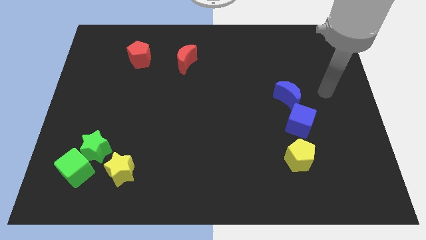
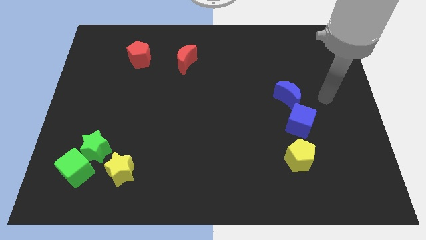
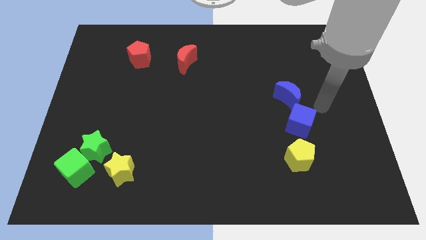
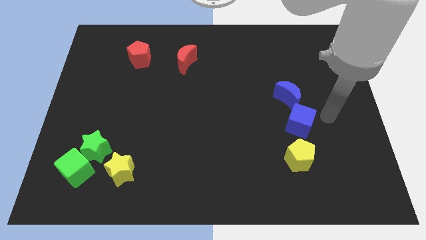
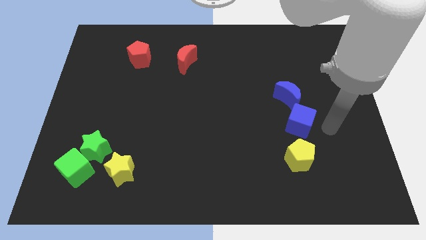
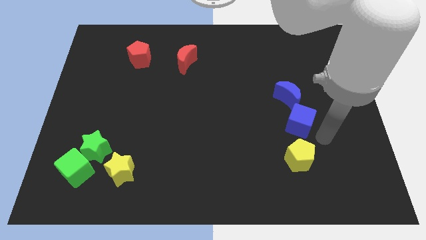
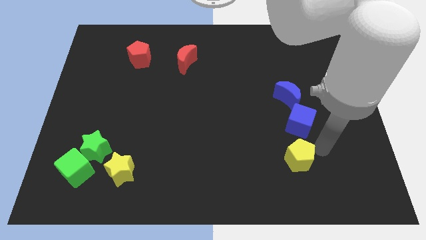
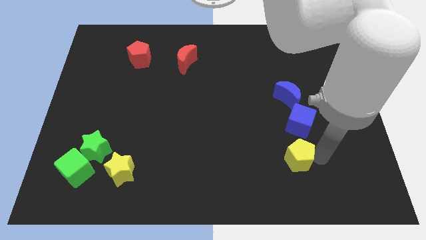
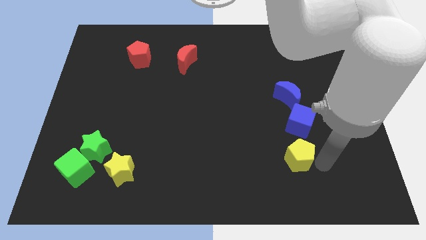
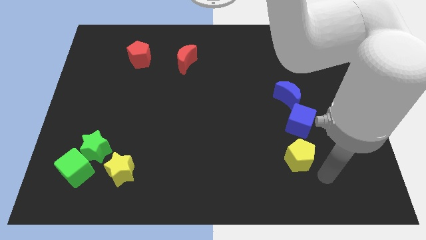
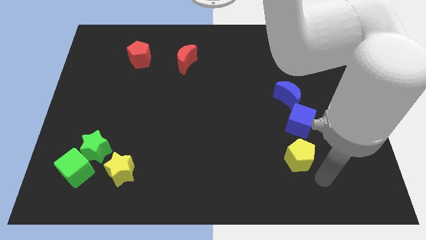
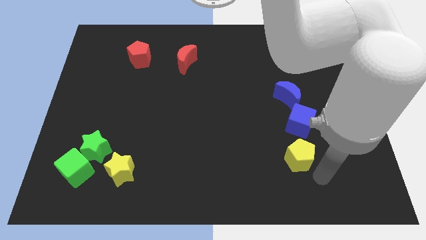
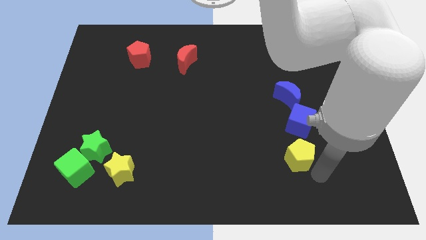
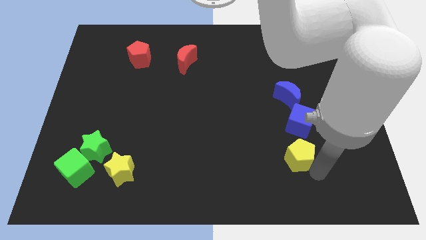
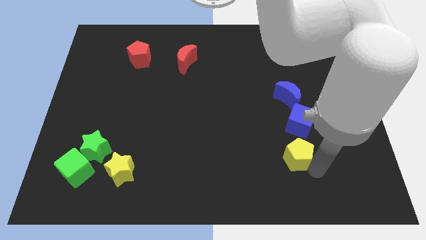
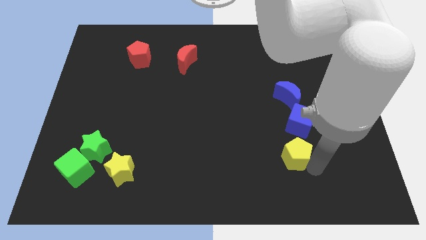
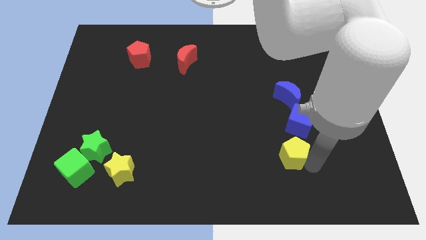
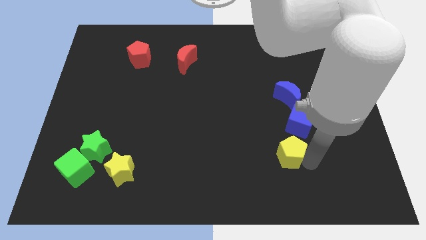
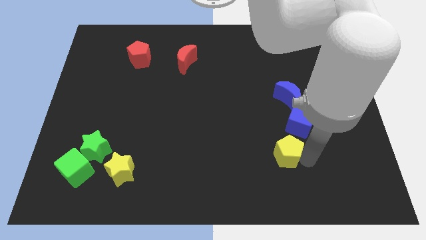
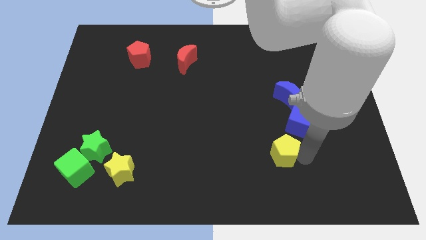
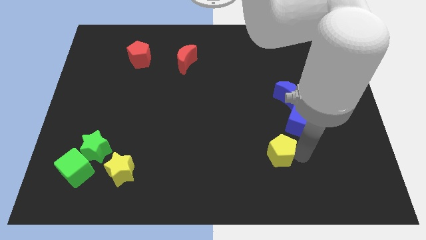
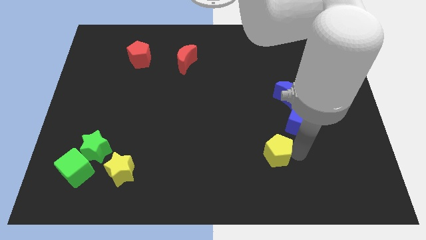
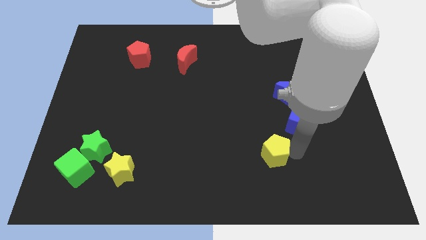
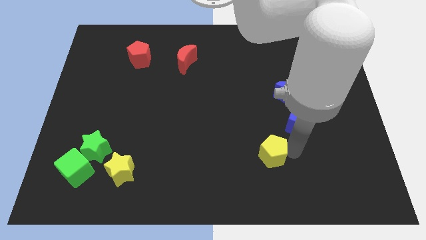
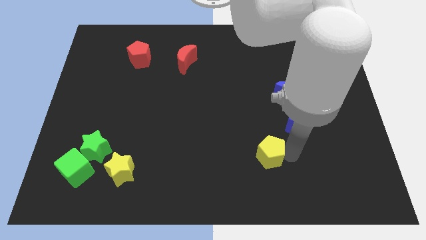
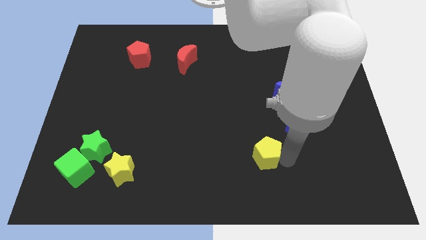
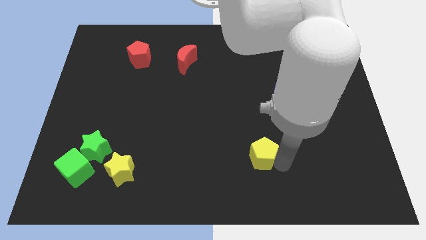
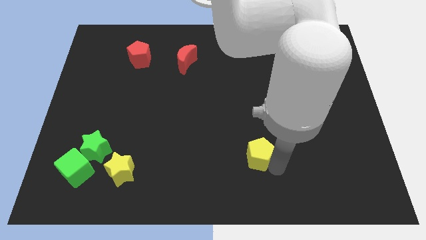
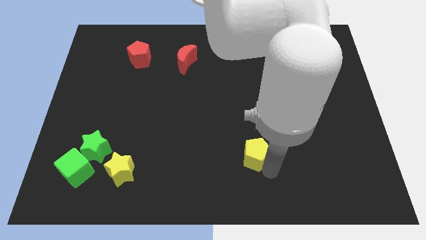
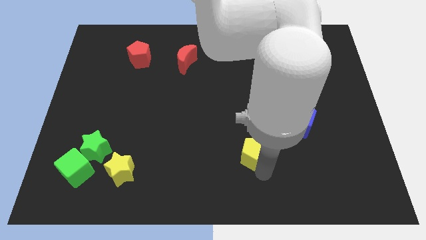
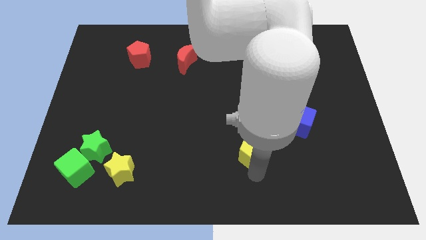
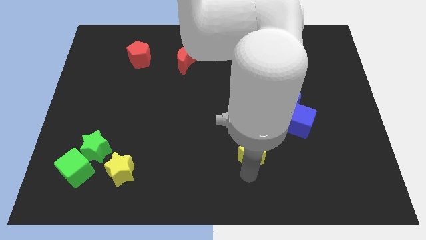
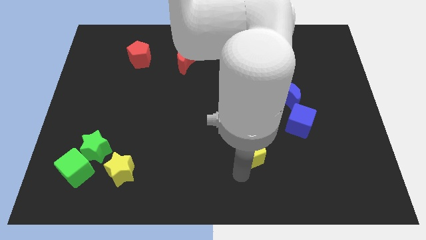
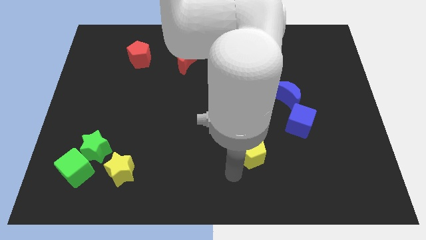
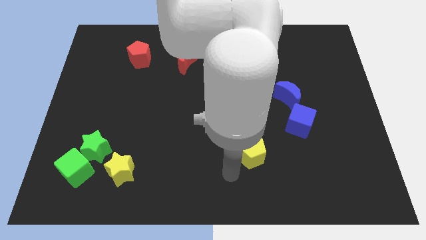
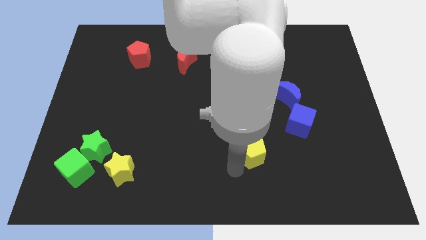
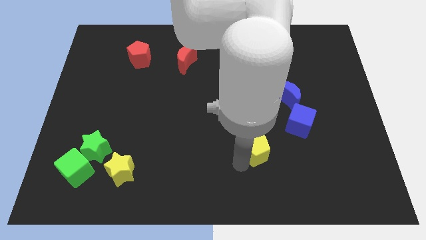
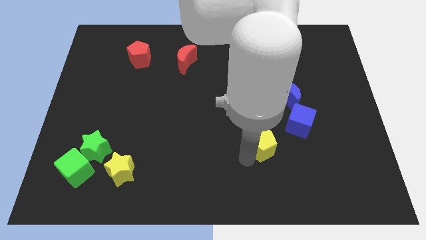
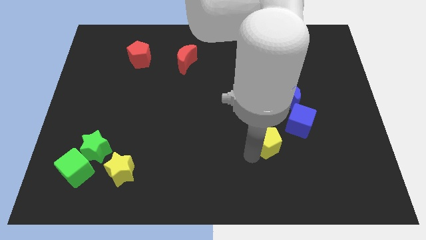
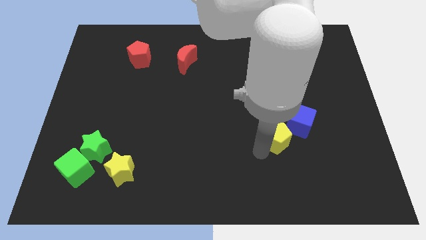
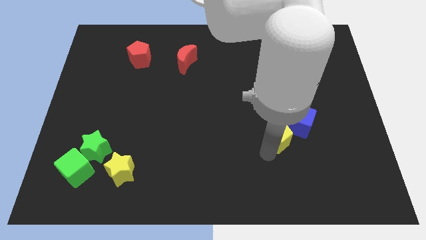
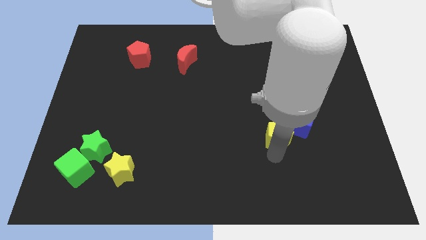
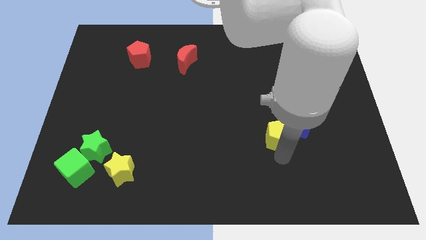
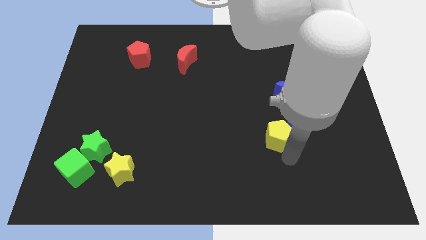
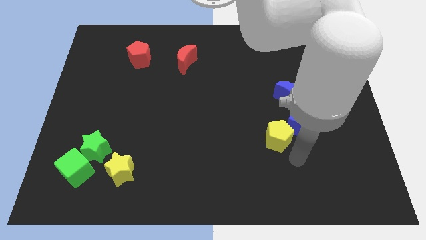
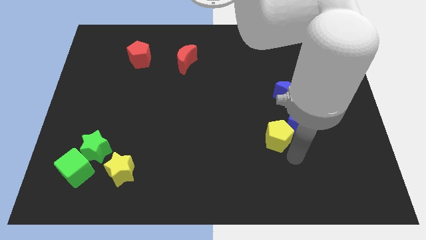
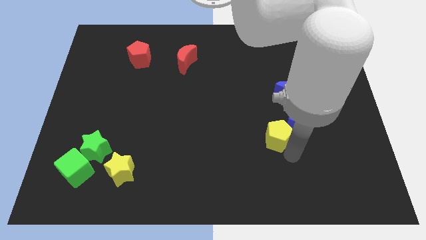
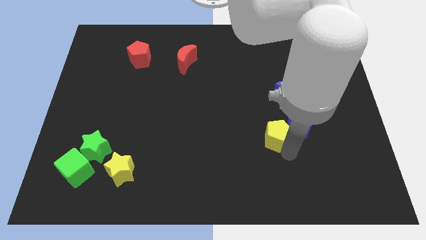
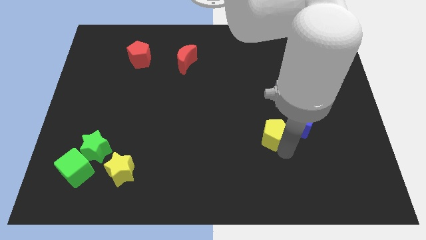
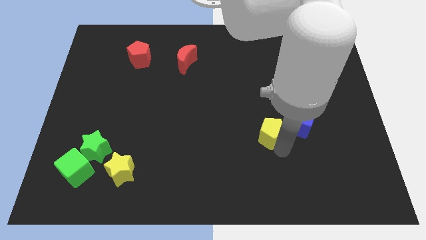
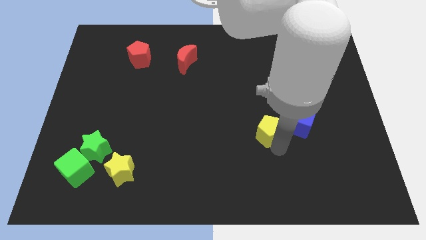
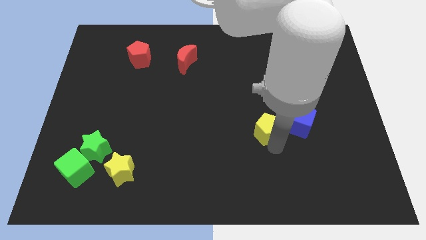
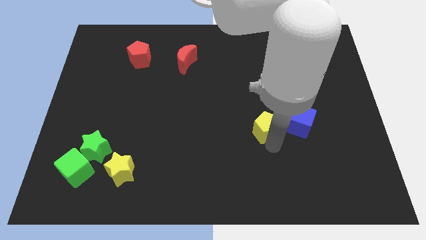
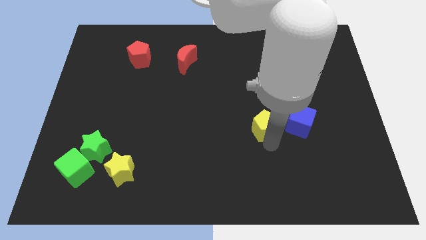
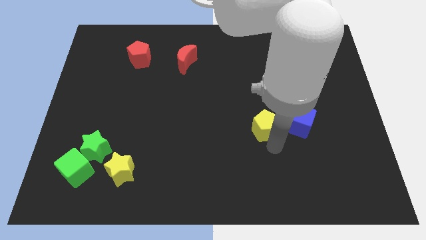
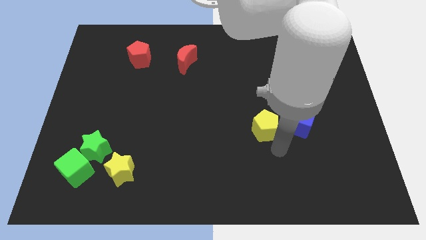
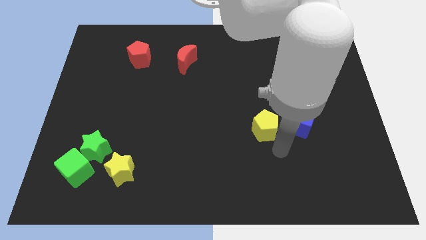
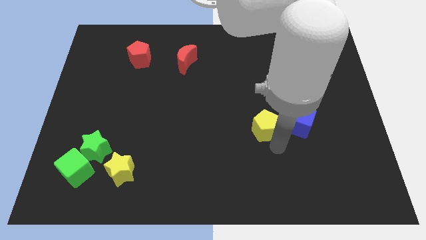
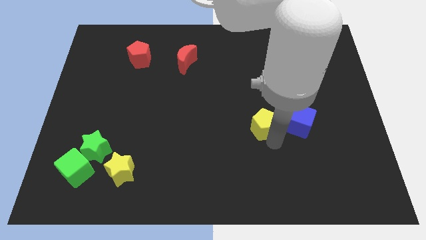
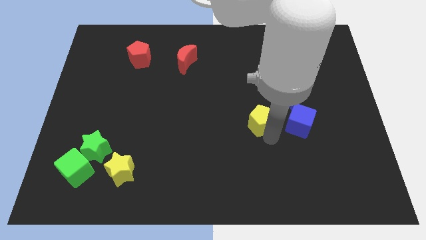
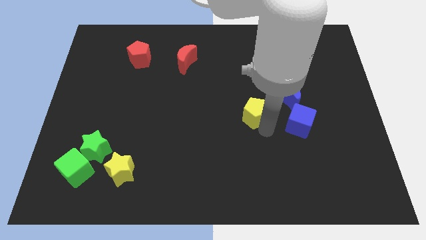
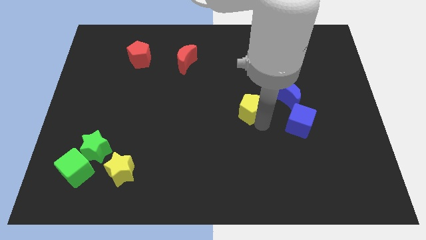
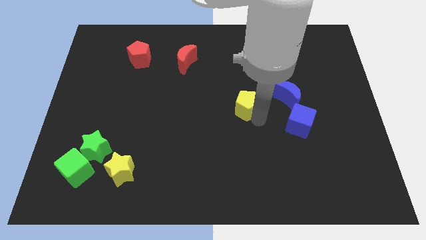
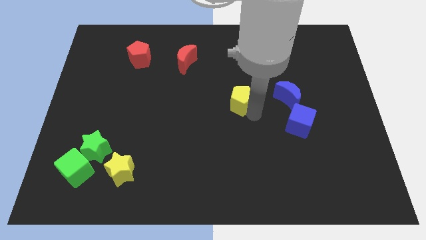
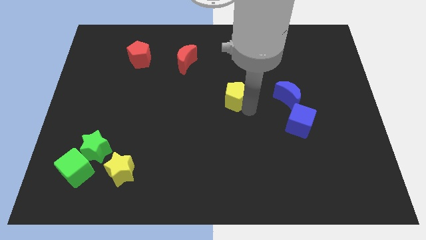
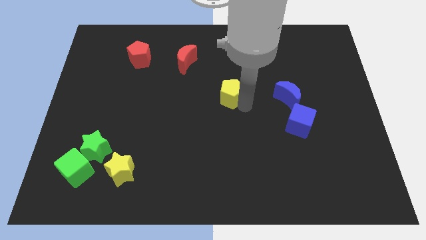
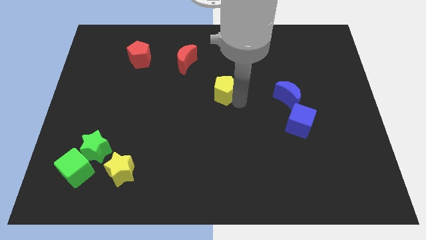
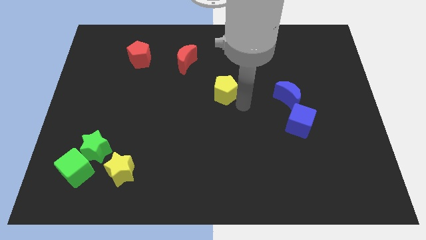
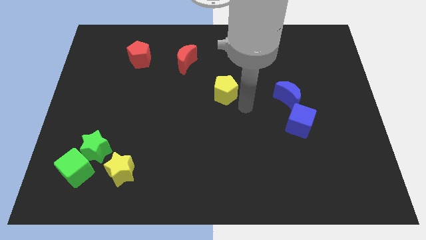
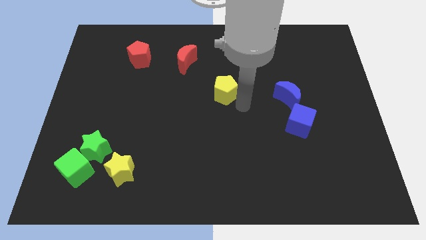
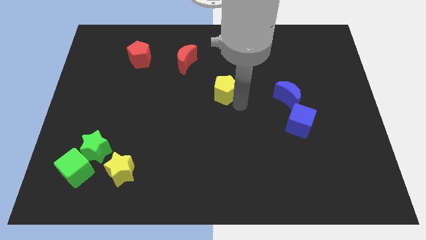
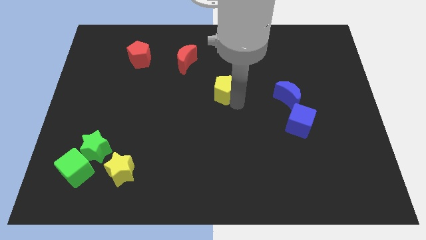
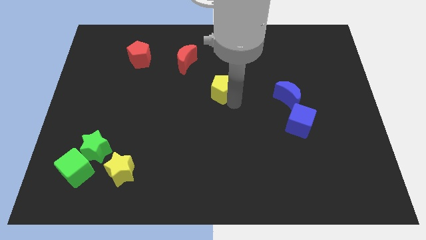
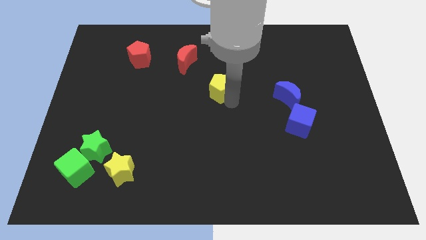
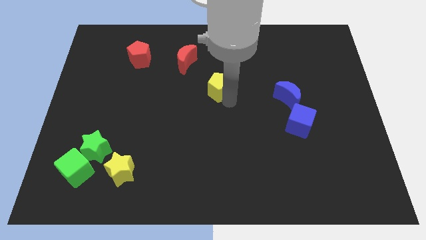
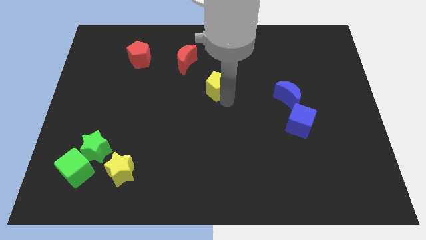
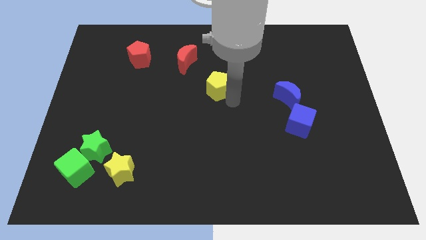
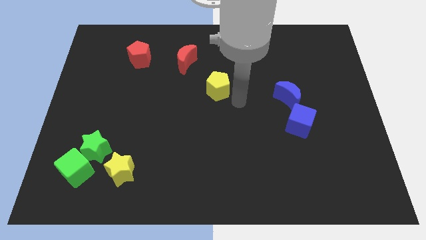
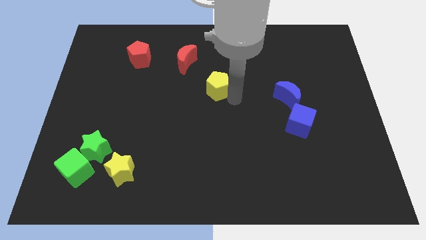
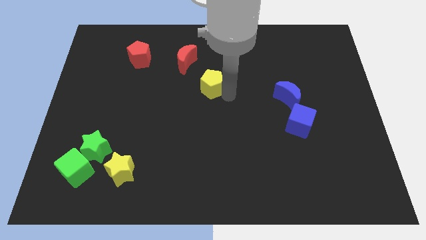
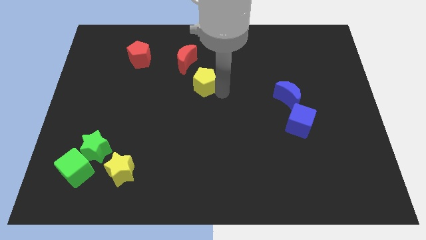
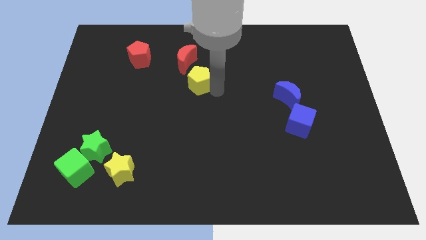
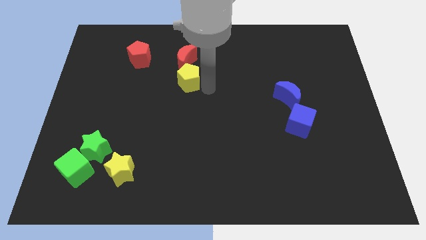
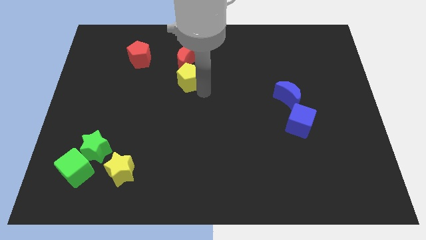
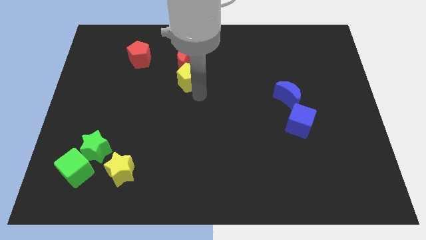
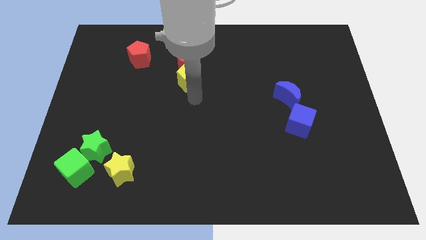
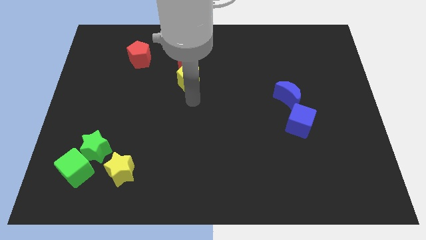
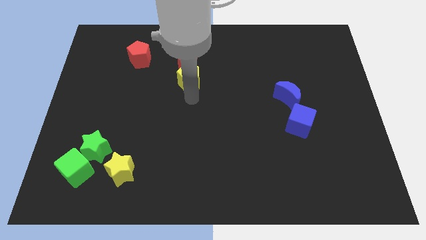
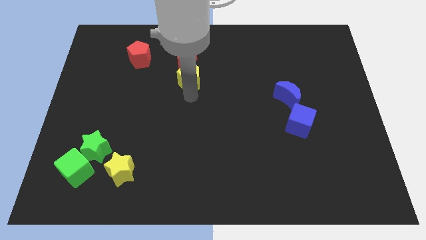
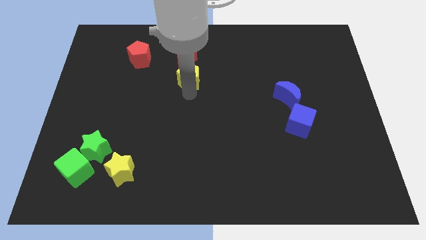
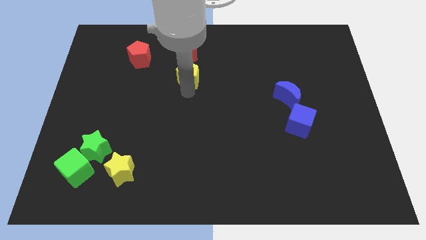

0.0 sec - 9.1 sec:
put the yellow pentagon next to the red moon
